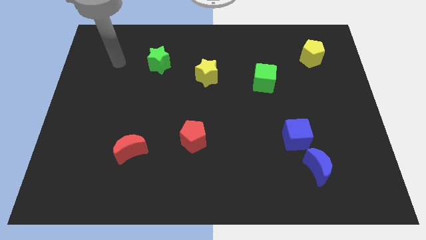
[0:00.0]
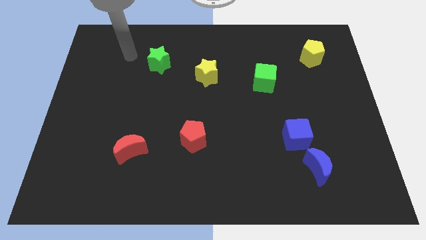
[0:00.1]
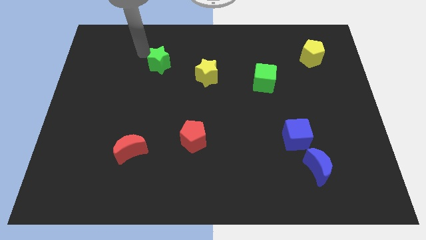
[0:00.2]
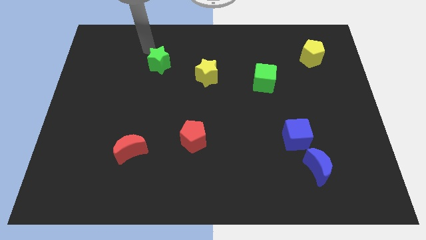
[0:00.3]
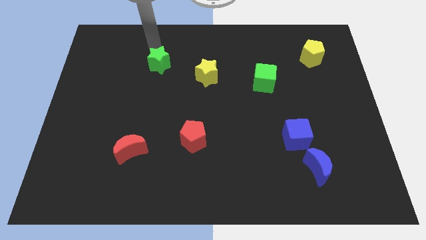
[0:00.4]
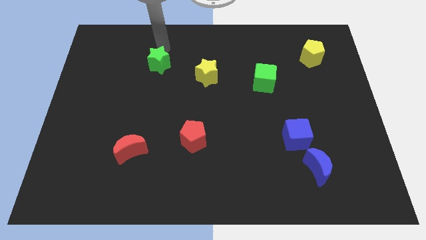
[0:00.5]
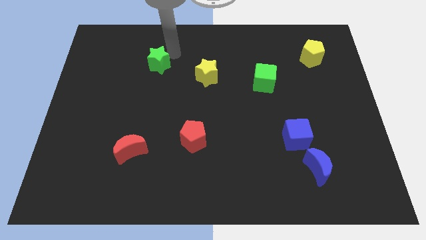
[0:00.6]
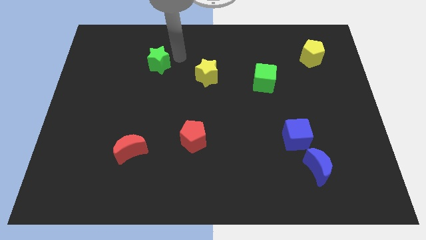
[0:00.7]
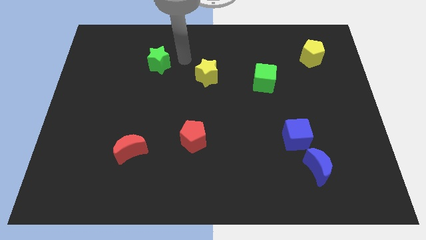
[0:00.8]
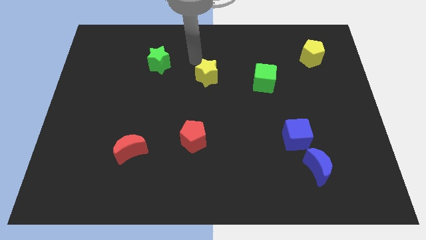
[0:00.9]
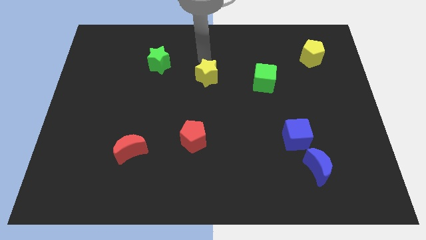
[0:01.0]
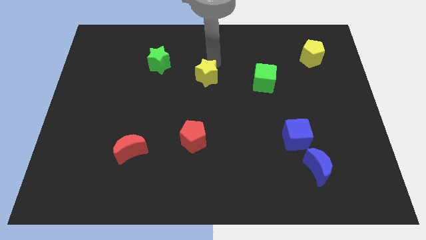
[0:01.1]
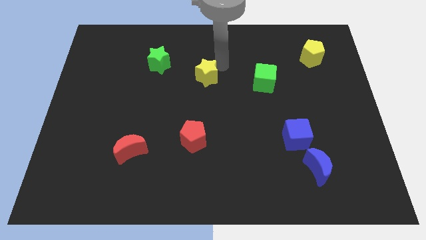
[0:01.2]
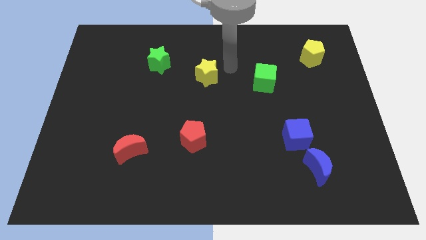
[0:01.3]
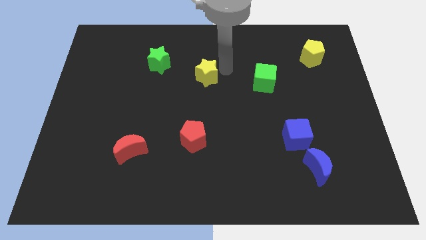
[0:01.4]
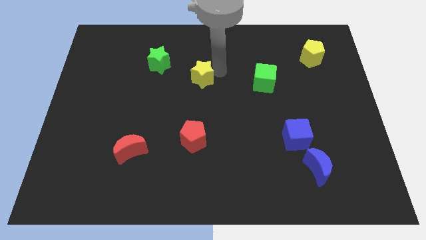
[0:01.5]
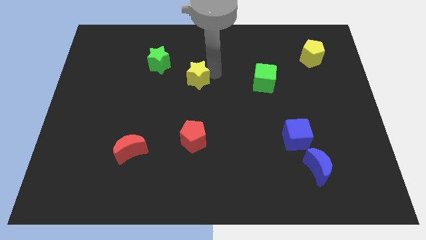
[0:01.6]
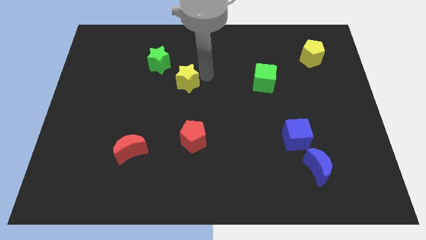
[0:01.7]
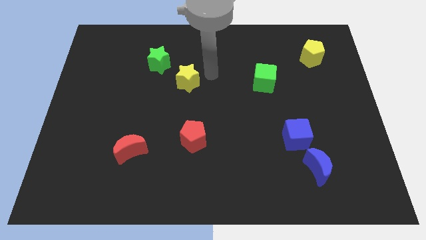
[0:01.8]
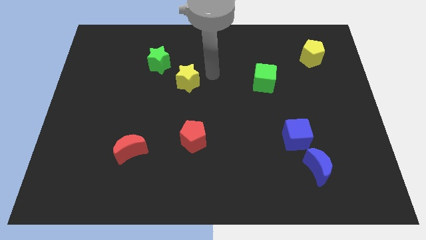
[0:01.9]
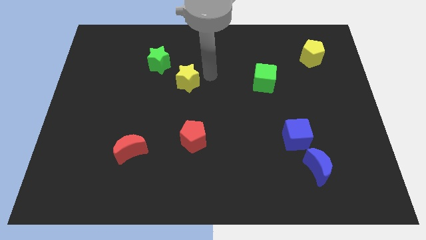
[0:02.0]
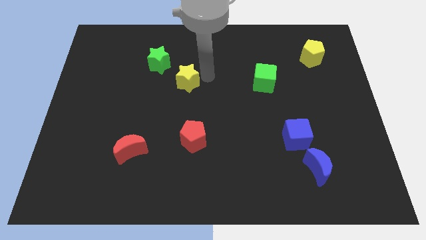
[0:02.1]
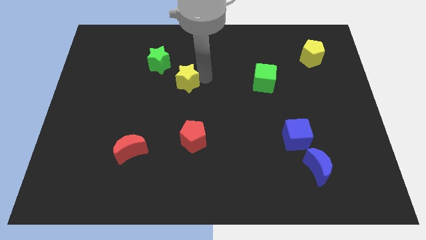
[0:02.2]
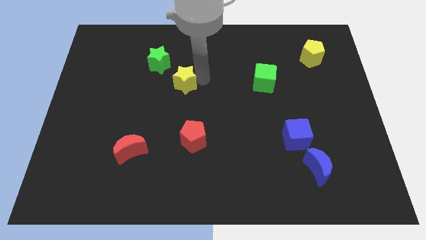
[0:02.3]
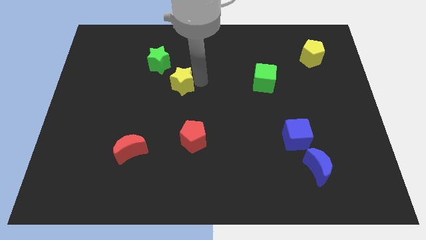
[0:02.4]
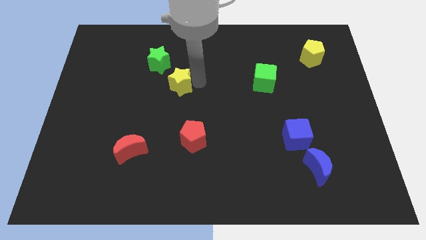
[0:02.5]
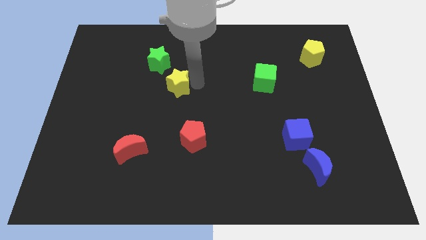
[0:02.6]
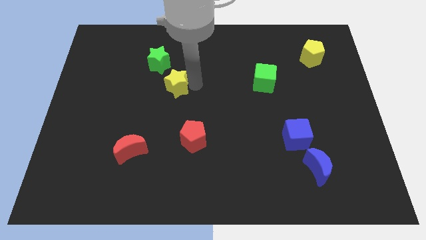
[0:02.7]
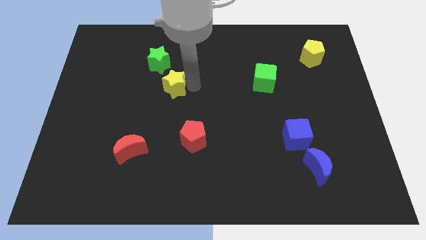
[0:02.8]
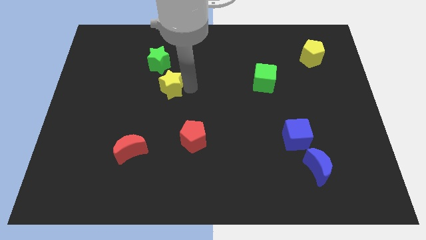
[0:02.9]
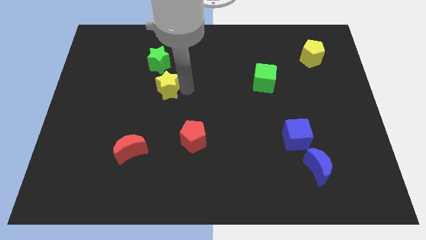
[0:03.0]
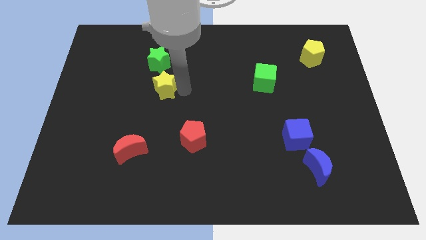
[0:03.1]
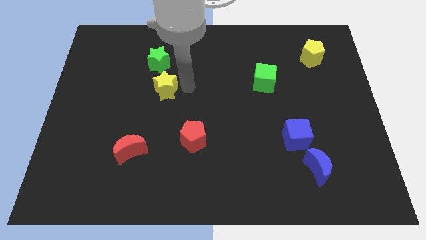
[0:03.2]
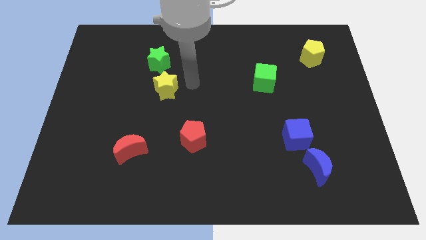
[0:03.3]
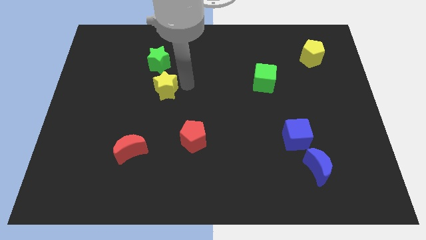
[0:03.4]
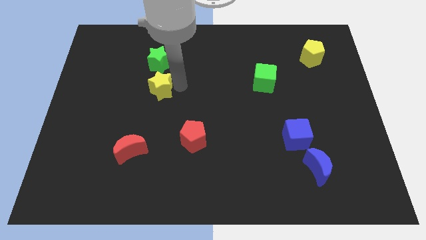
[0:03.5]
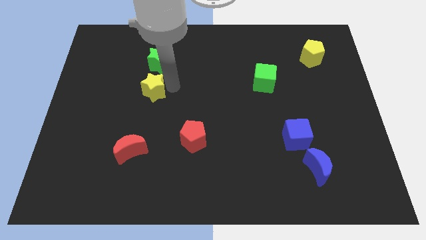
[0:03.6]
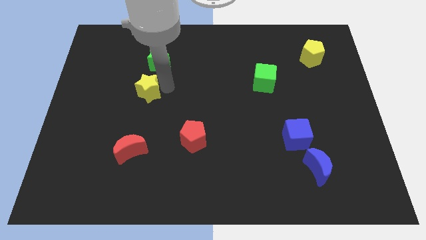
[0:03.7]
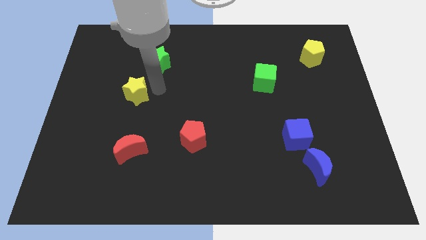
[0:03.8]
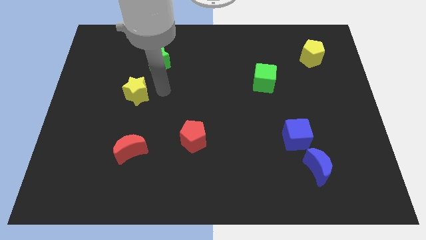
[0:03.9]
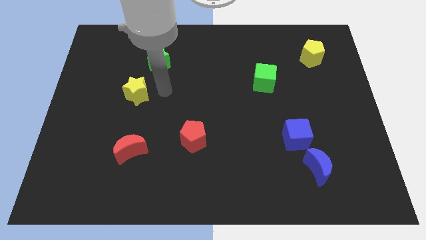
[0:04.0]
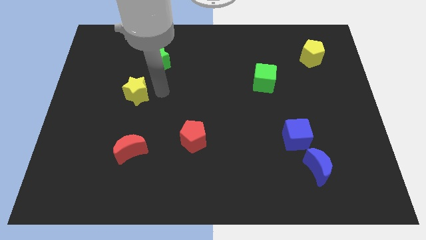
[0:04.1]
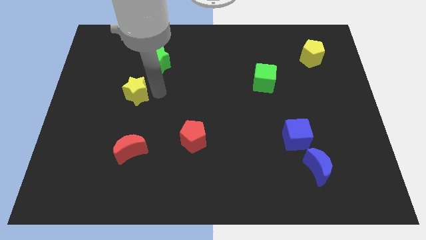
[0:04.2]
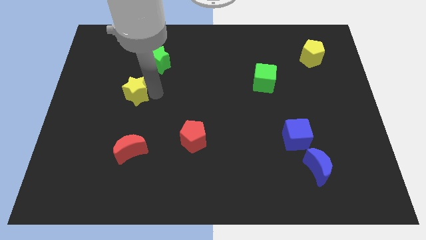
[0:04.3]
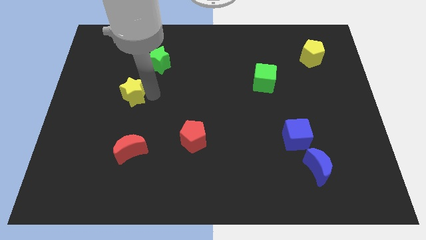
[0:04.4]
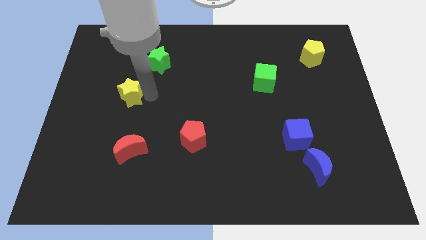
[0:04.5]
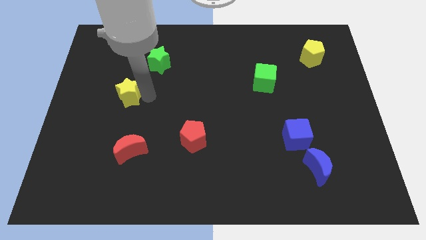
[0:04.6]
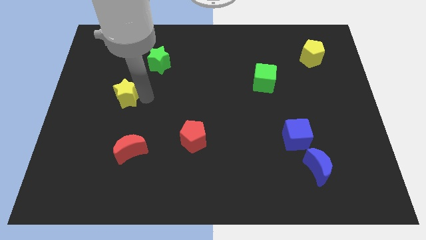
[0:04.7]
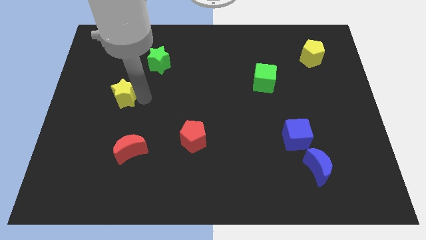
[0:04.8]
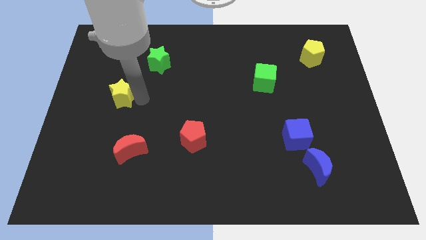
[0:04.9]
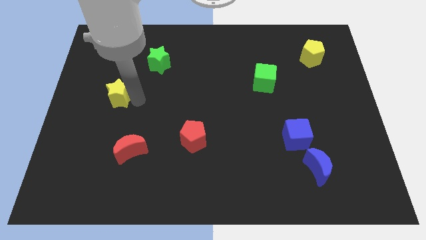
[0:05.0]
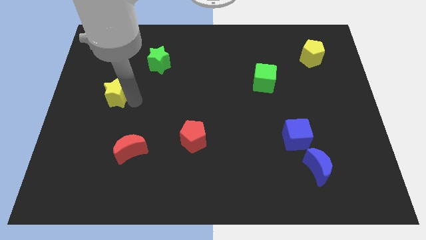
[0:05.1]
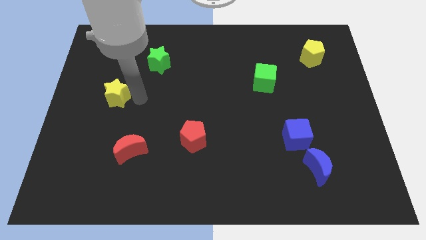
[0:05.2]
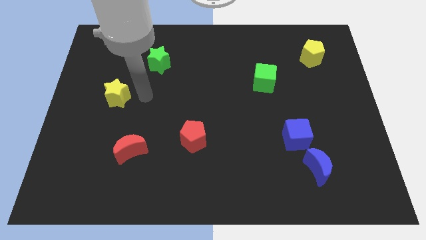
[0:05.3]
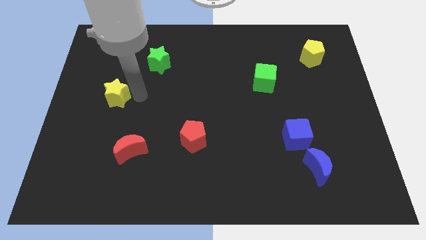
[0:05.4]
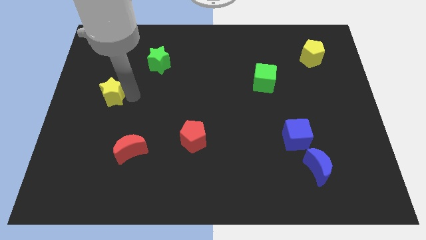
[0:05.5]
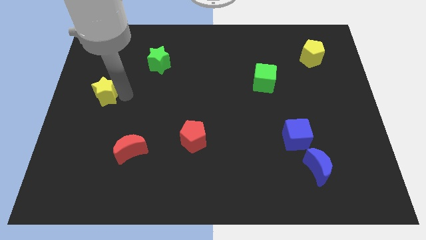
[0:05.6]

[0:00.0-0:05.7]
slide the yellow star to the left side of the board
